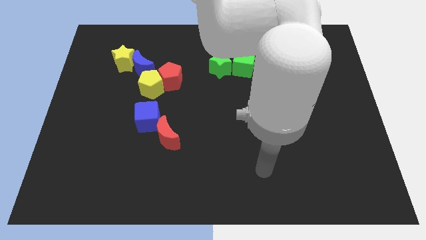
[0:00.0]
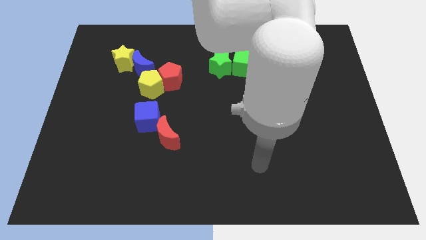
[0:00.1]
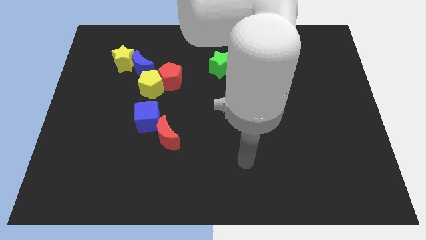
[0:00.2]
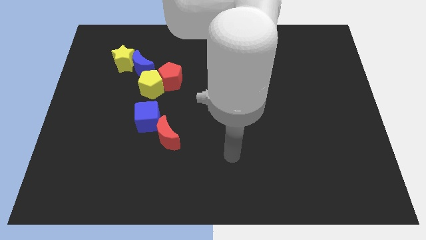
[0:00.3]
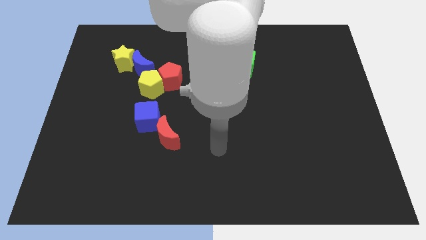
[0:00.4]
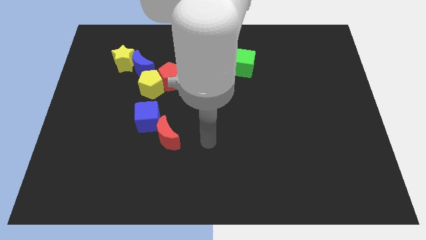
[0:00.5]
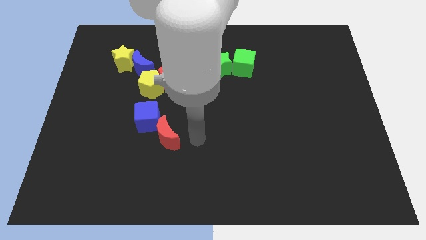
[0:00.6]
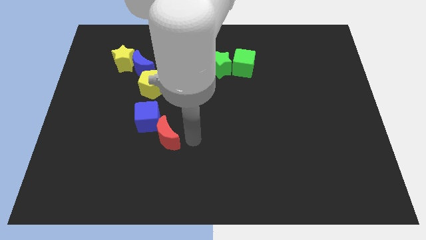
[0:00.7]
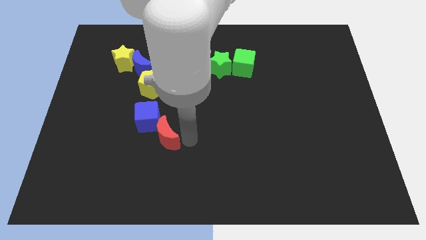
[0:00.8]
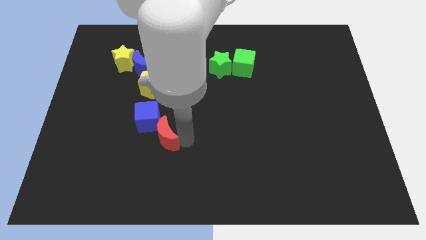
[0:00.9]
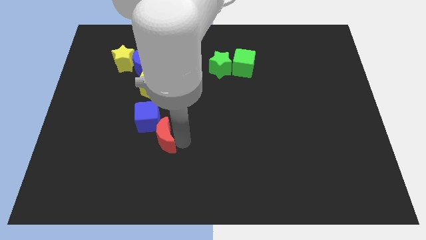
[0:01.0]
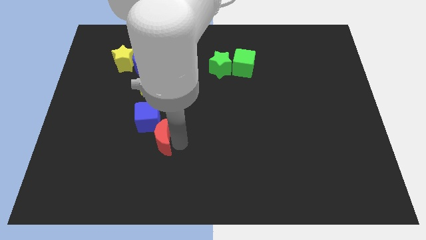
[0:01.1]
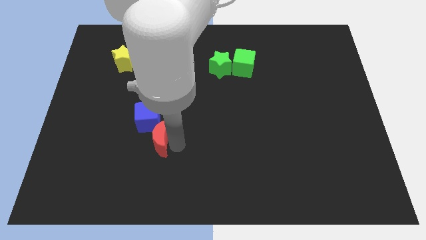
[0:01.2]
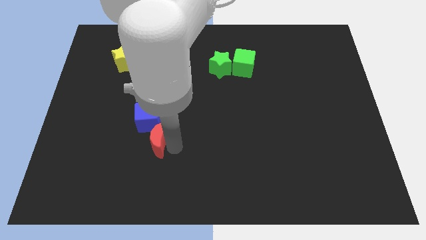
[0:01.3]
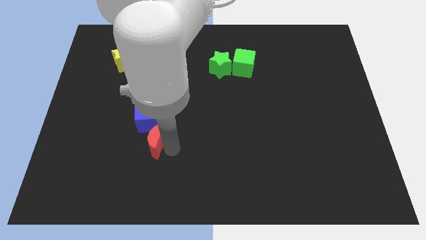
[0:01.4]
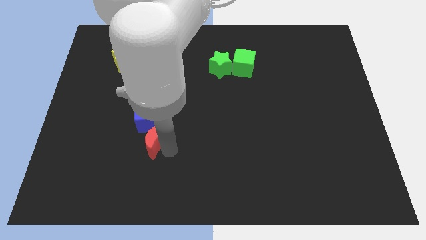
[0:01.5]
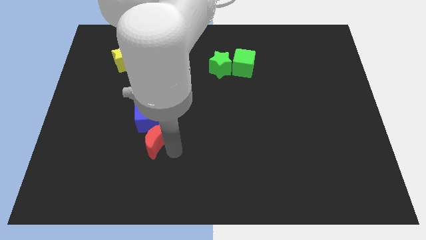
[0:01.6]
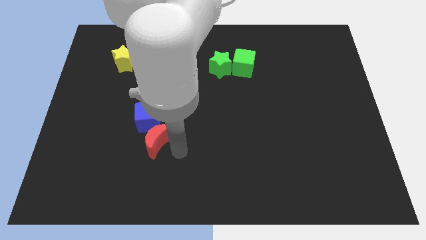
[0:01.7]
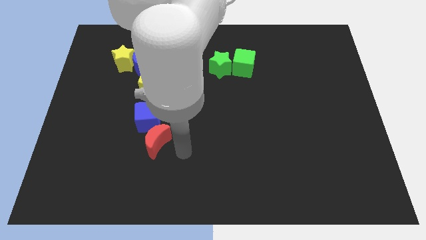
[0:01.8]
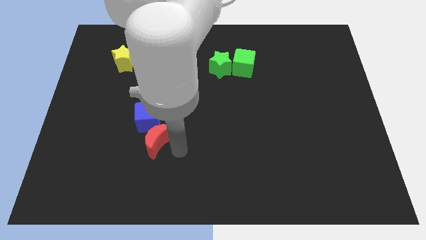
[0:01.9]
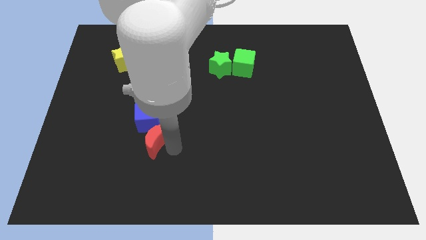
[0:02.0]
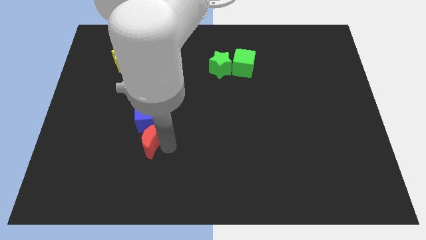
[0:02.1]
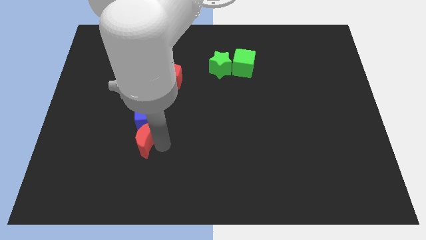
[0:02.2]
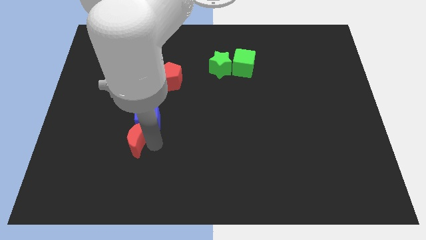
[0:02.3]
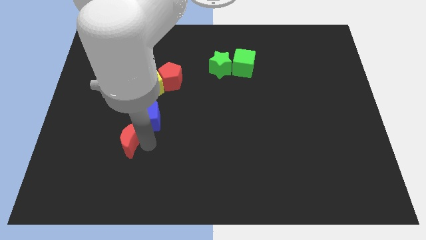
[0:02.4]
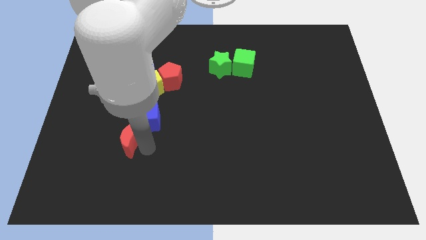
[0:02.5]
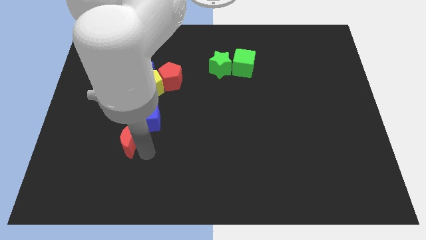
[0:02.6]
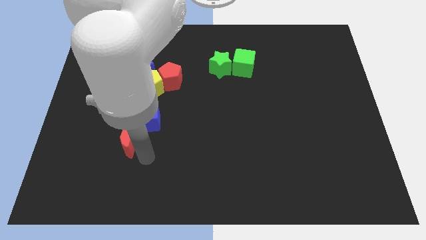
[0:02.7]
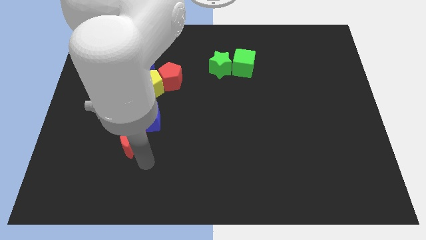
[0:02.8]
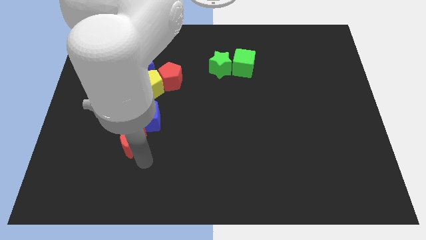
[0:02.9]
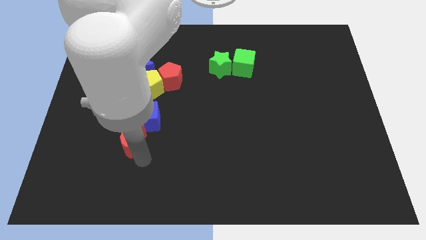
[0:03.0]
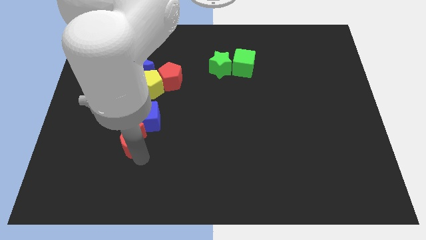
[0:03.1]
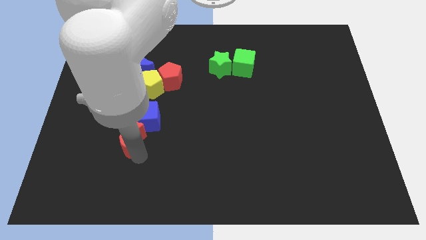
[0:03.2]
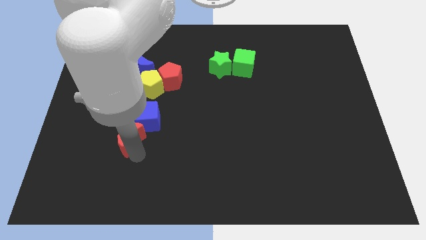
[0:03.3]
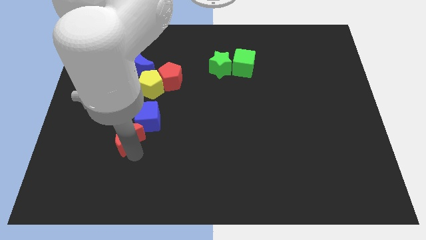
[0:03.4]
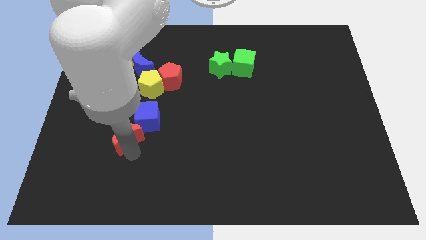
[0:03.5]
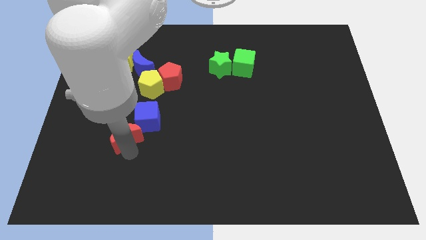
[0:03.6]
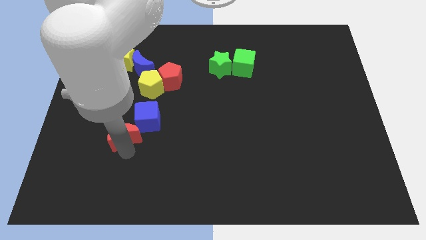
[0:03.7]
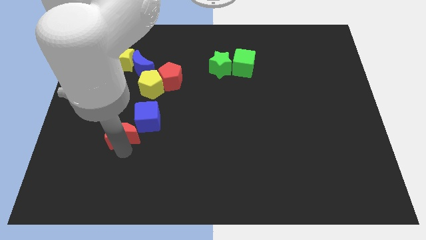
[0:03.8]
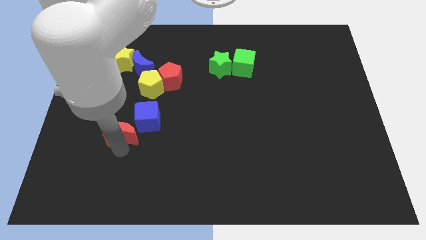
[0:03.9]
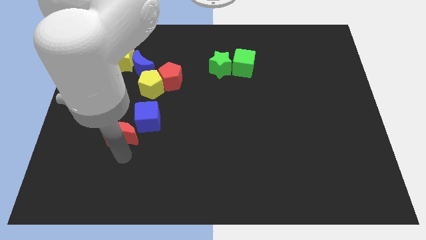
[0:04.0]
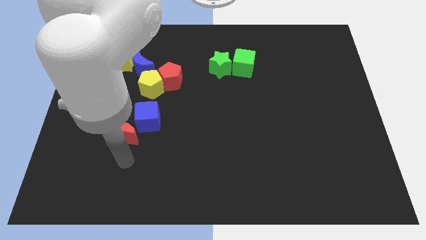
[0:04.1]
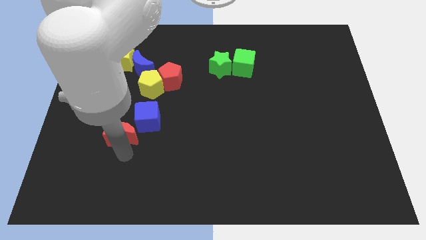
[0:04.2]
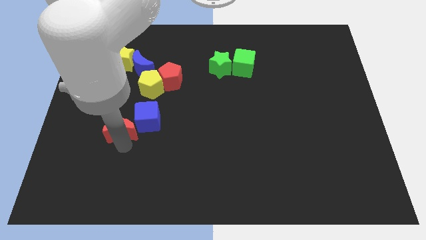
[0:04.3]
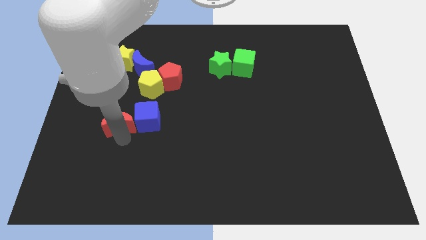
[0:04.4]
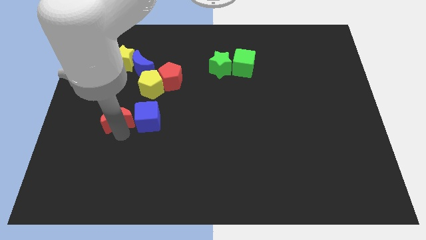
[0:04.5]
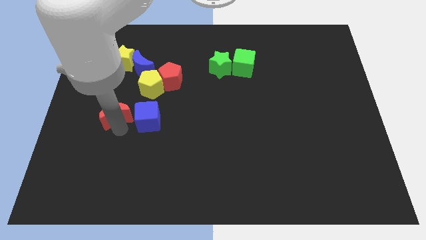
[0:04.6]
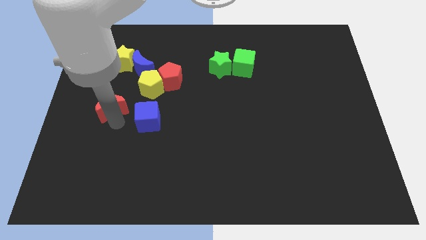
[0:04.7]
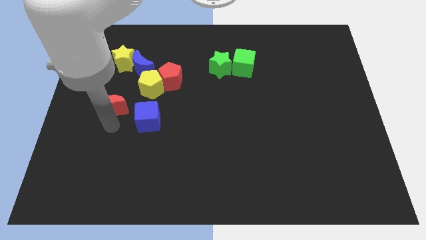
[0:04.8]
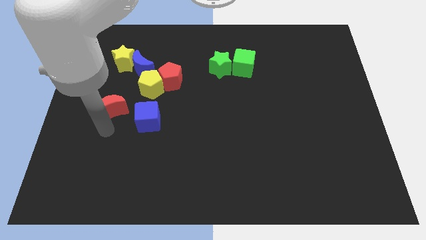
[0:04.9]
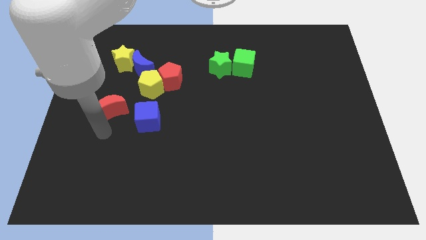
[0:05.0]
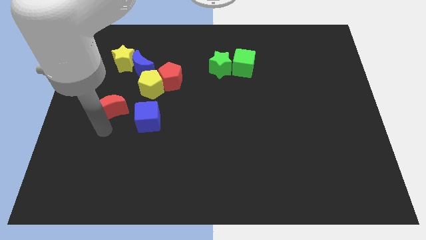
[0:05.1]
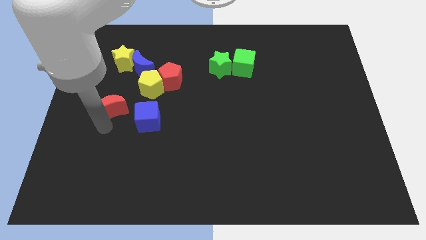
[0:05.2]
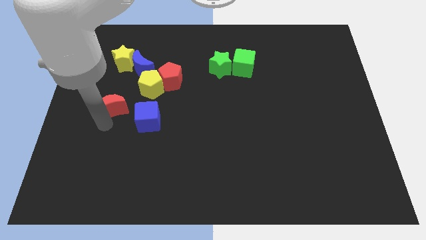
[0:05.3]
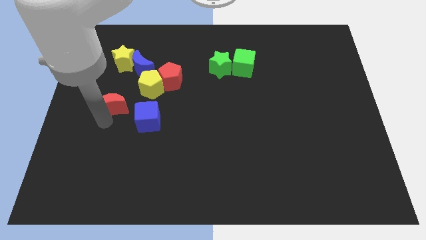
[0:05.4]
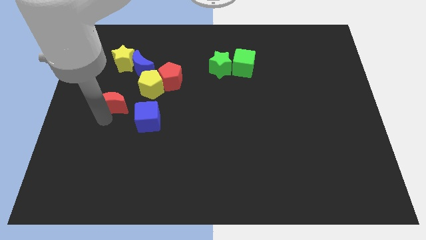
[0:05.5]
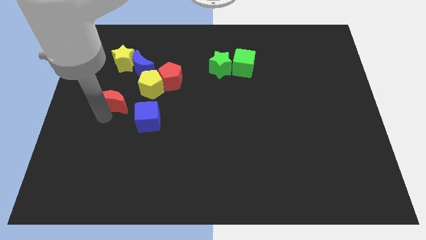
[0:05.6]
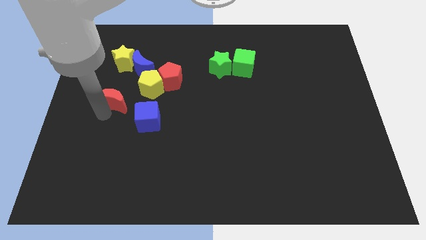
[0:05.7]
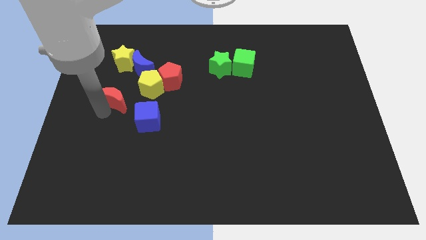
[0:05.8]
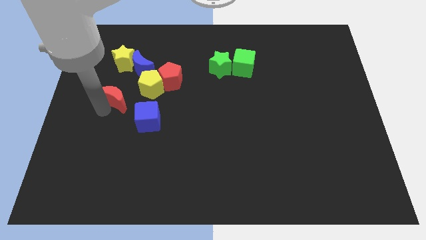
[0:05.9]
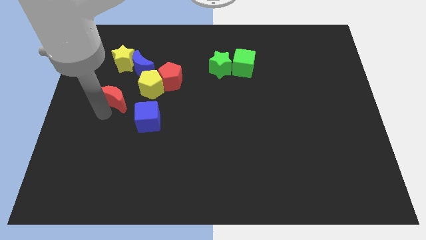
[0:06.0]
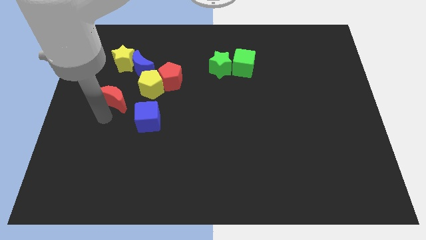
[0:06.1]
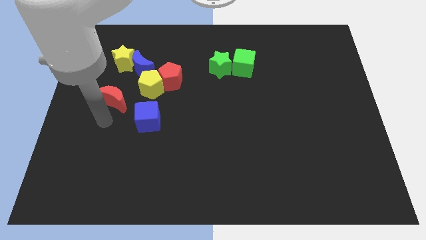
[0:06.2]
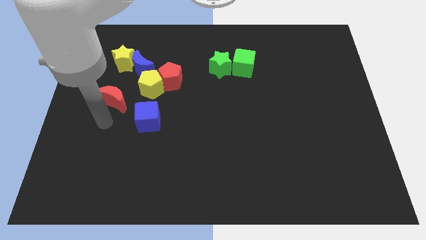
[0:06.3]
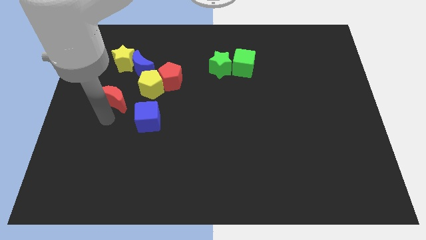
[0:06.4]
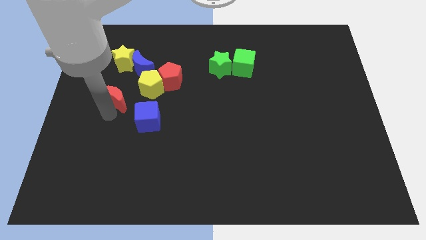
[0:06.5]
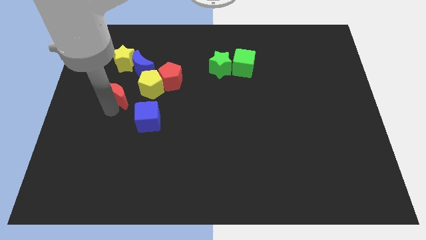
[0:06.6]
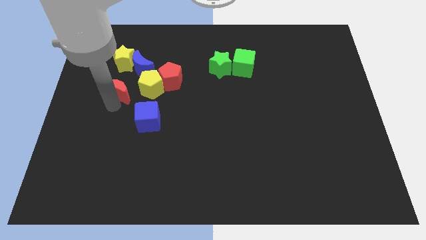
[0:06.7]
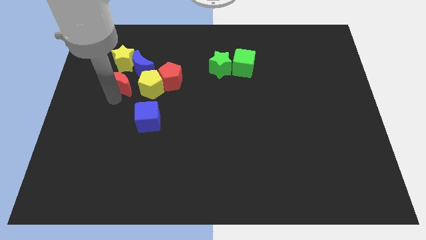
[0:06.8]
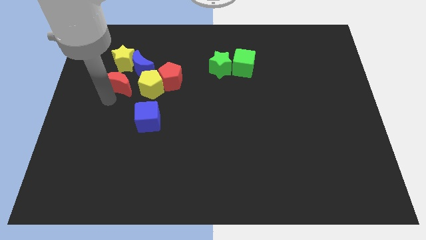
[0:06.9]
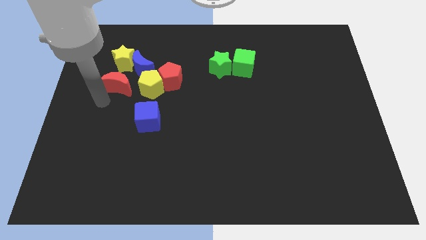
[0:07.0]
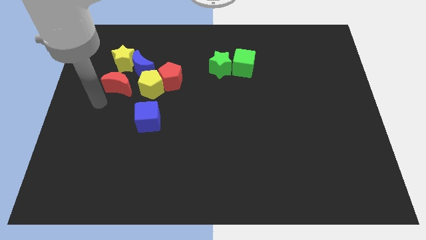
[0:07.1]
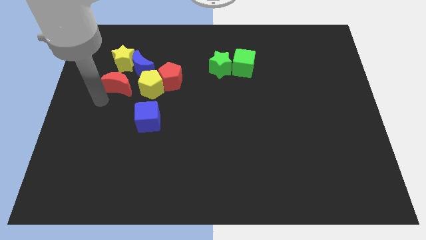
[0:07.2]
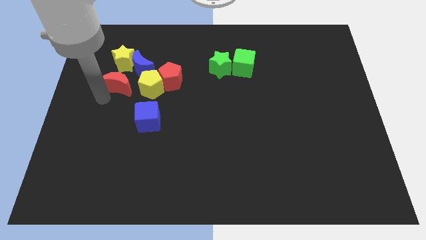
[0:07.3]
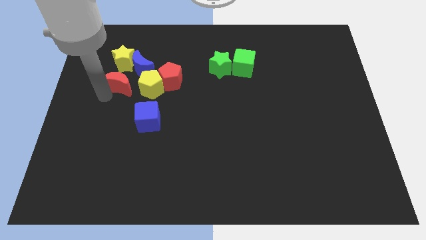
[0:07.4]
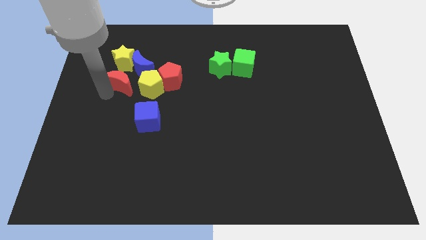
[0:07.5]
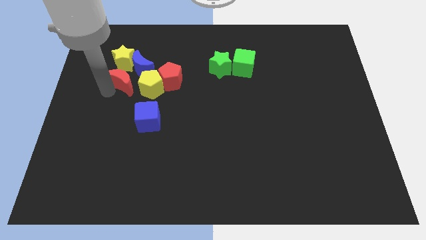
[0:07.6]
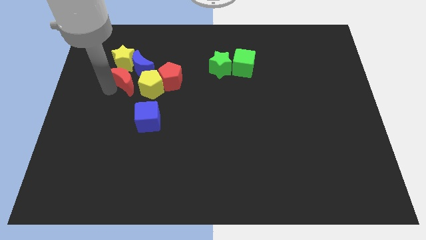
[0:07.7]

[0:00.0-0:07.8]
move the red moon towards the blue moon
